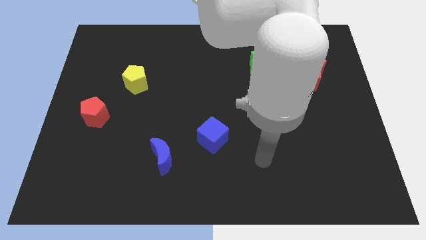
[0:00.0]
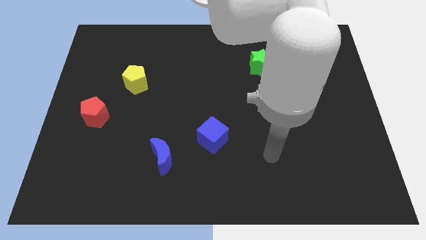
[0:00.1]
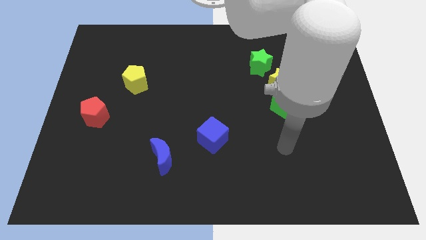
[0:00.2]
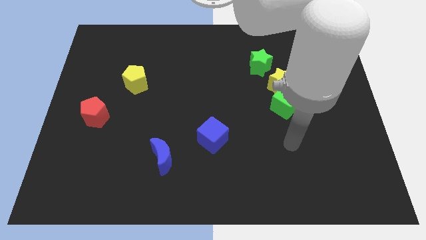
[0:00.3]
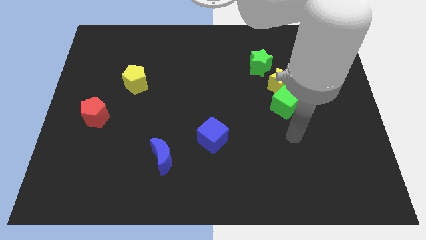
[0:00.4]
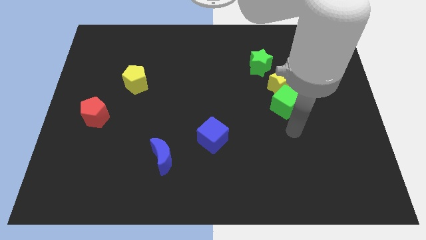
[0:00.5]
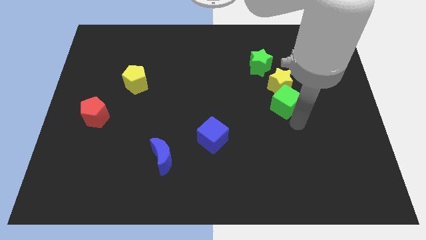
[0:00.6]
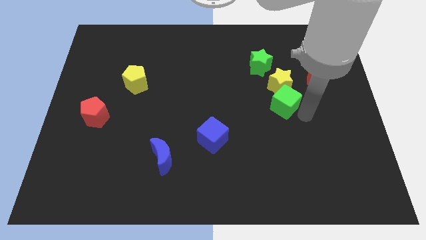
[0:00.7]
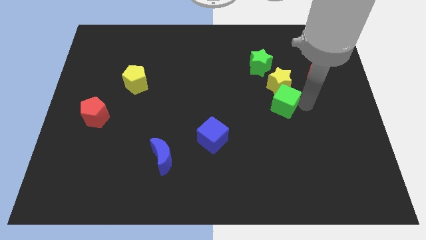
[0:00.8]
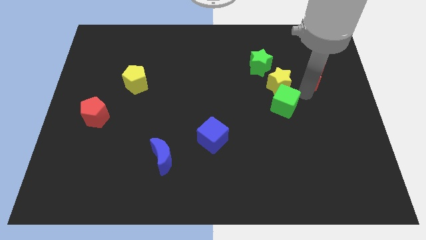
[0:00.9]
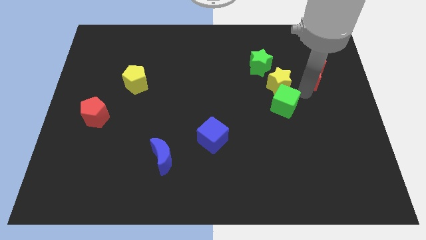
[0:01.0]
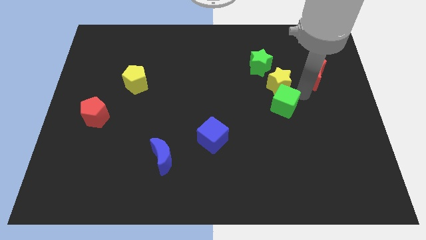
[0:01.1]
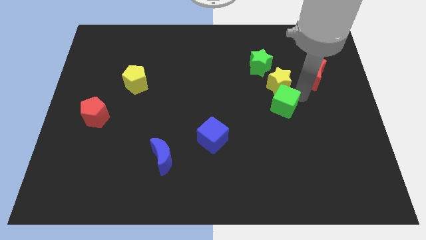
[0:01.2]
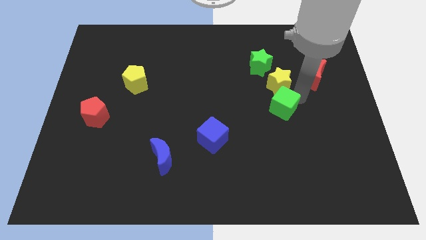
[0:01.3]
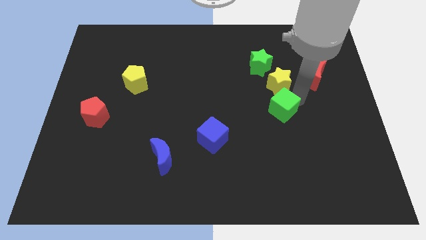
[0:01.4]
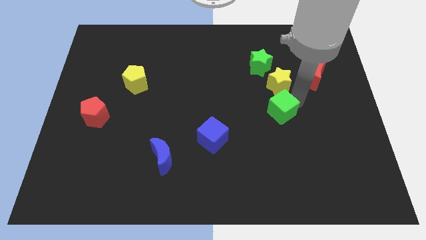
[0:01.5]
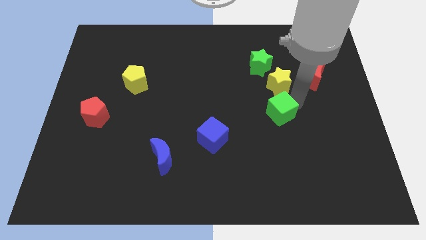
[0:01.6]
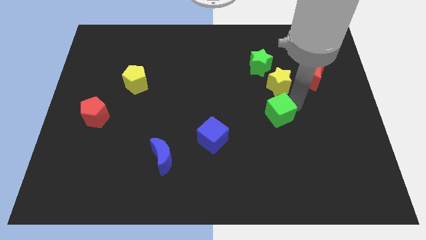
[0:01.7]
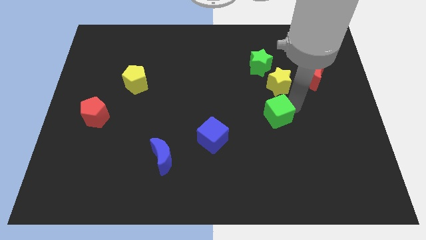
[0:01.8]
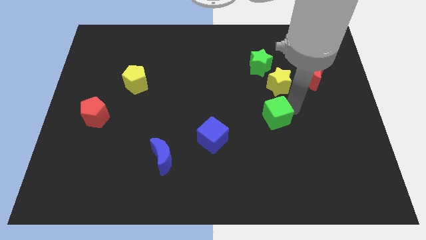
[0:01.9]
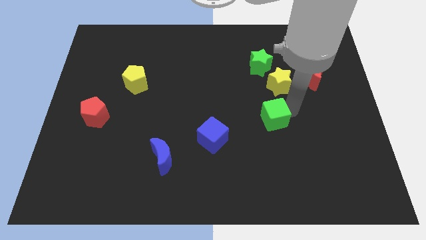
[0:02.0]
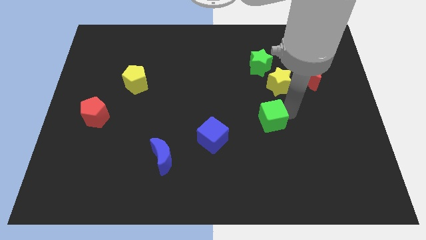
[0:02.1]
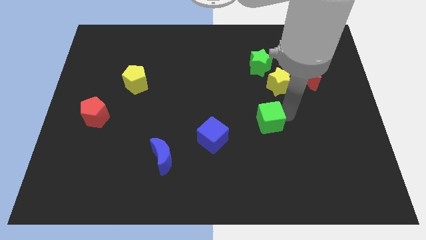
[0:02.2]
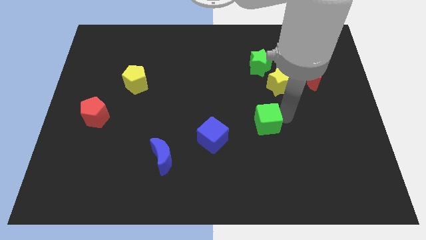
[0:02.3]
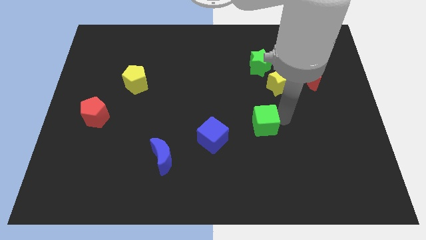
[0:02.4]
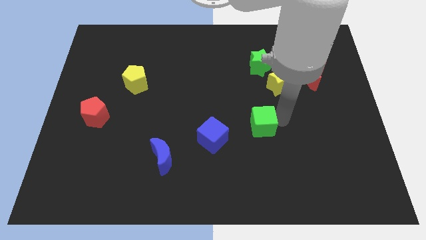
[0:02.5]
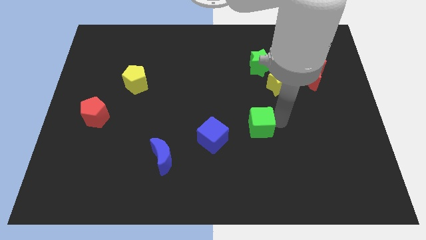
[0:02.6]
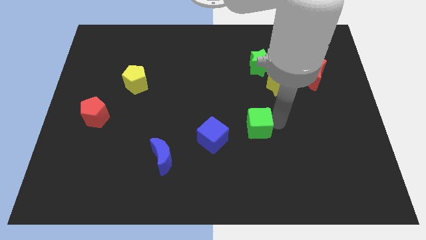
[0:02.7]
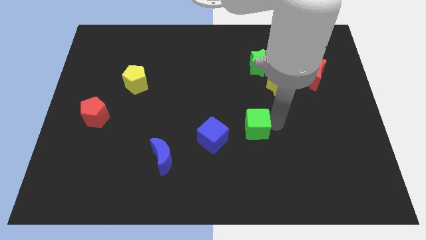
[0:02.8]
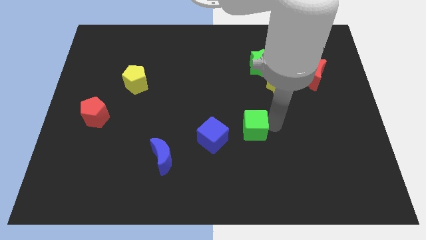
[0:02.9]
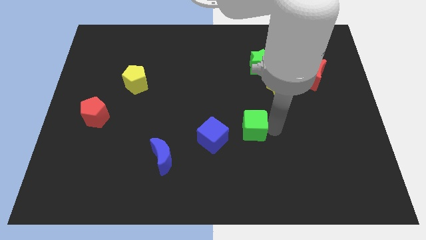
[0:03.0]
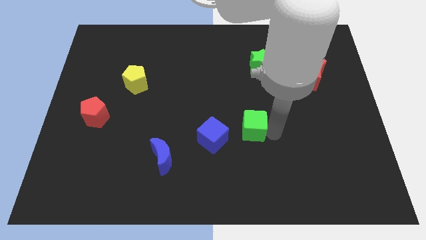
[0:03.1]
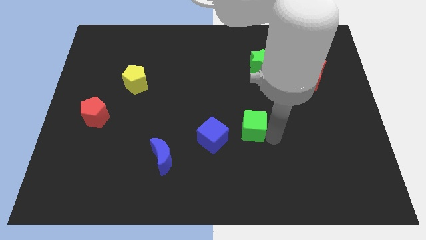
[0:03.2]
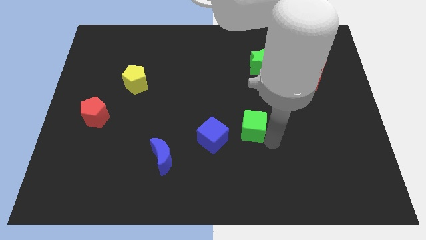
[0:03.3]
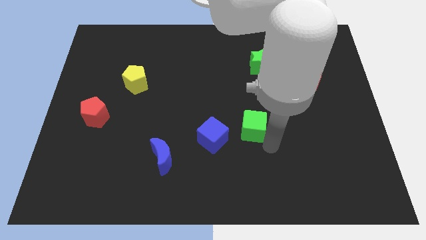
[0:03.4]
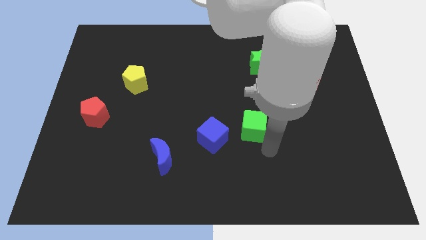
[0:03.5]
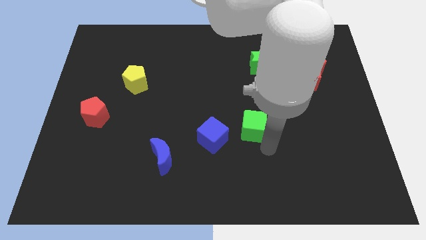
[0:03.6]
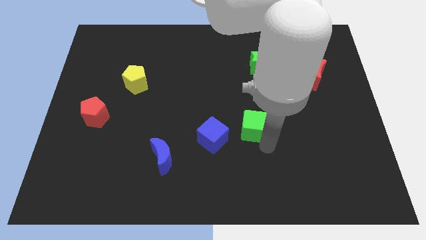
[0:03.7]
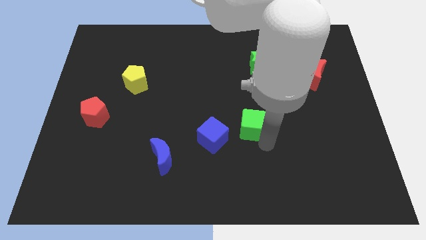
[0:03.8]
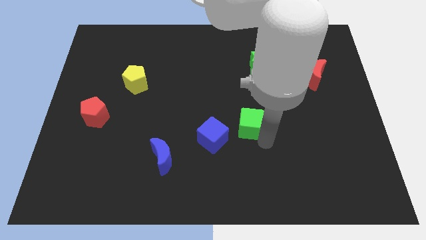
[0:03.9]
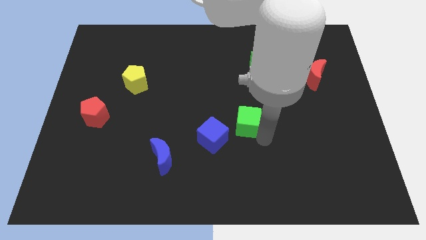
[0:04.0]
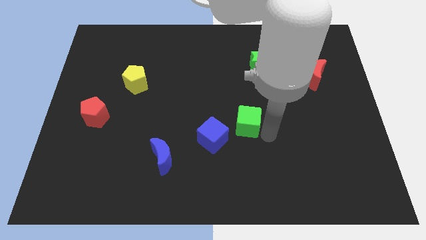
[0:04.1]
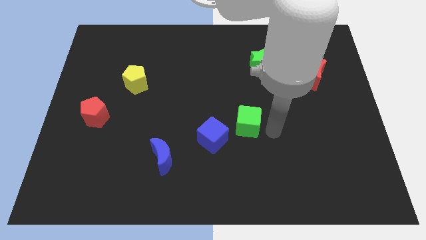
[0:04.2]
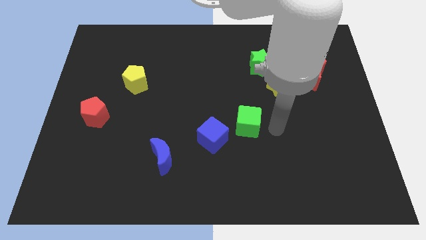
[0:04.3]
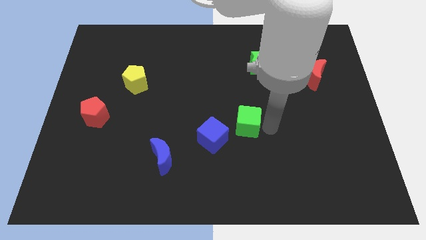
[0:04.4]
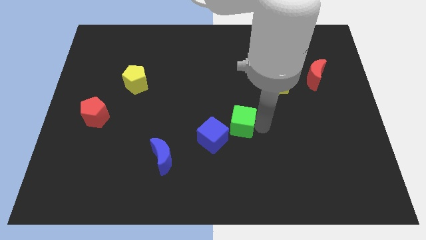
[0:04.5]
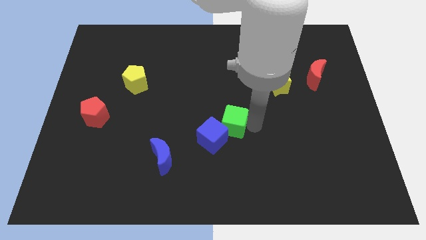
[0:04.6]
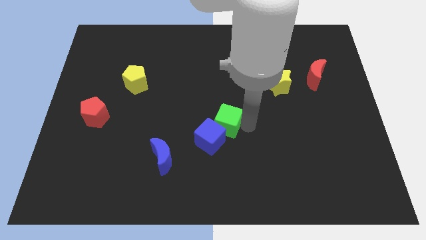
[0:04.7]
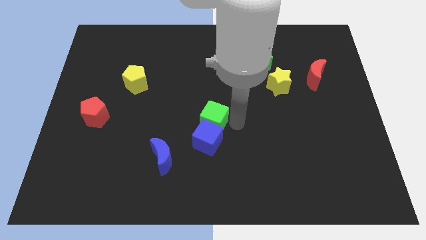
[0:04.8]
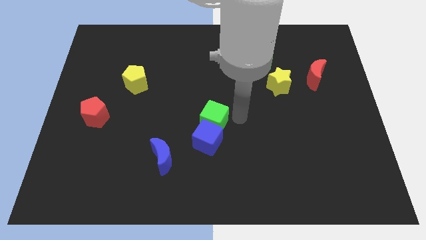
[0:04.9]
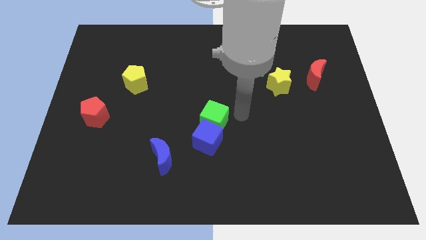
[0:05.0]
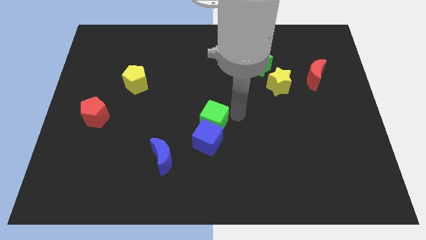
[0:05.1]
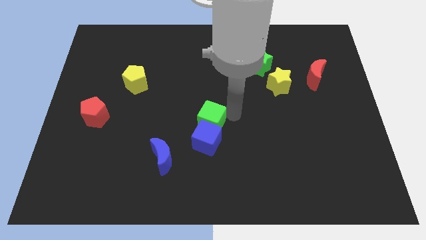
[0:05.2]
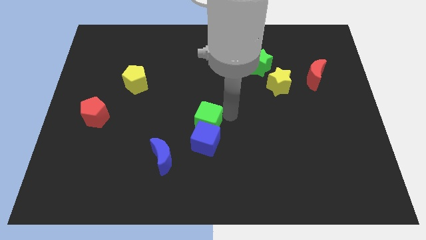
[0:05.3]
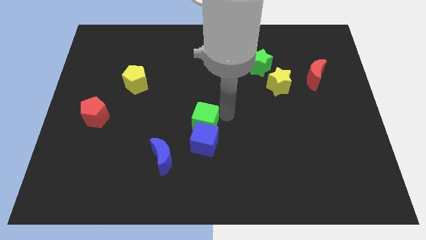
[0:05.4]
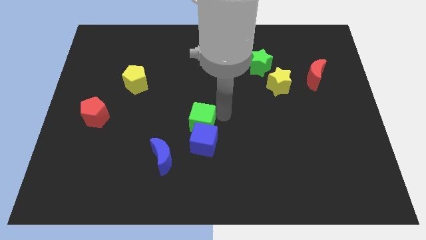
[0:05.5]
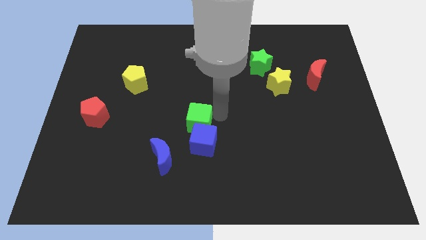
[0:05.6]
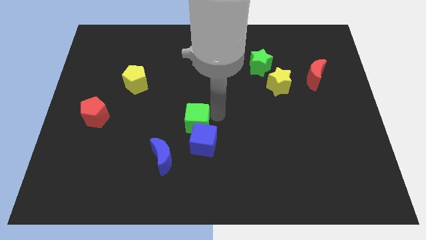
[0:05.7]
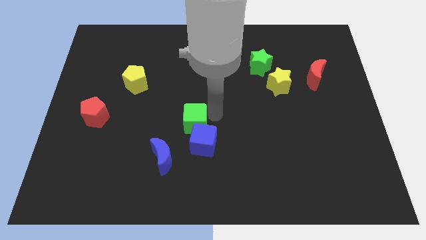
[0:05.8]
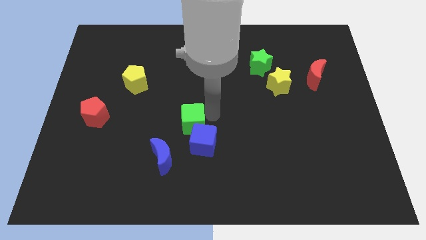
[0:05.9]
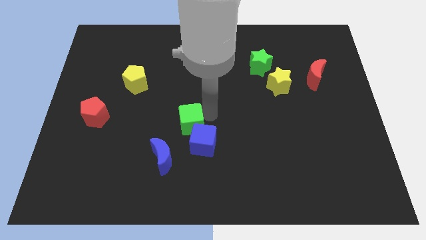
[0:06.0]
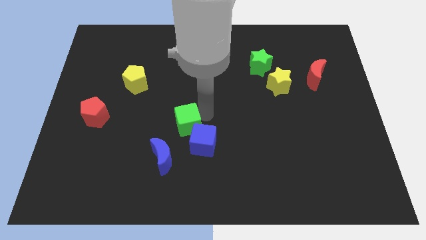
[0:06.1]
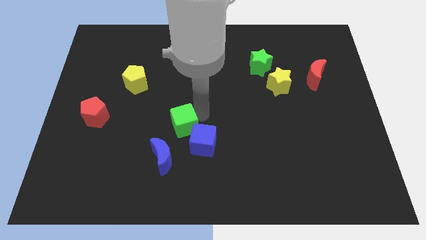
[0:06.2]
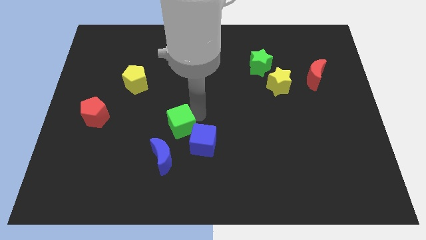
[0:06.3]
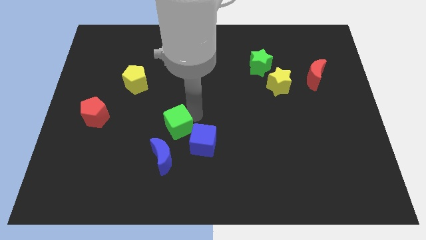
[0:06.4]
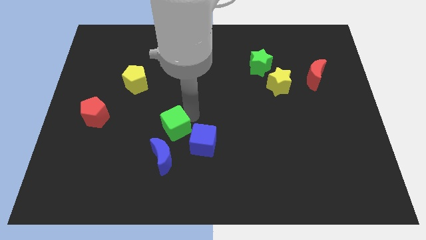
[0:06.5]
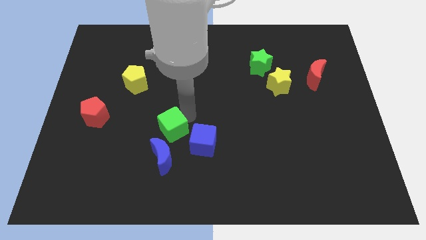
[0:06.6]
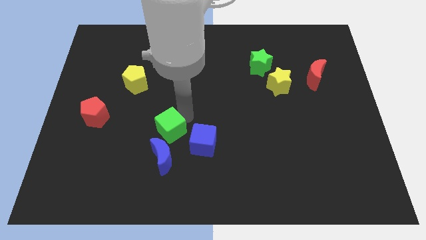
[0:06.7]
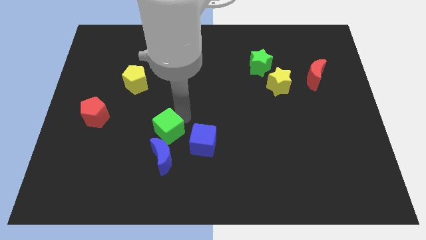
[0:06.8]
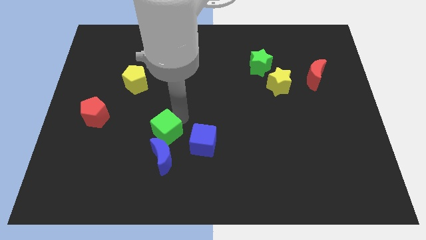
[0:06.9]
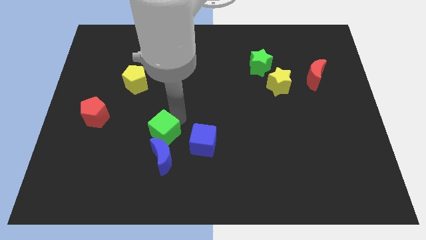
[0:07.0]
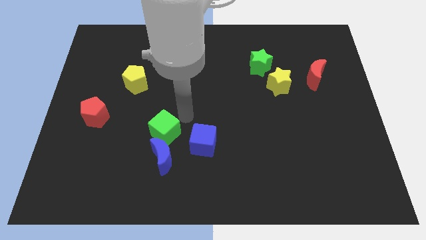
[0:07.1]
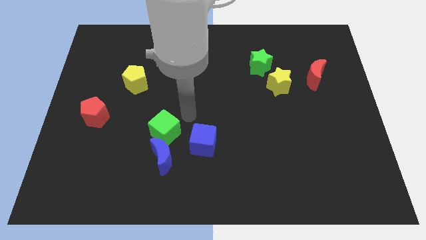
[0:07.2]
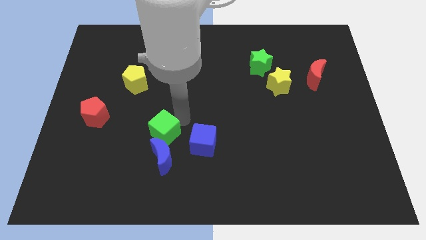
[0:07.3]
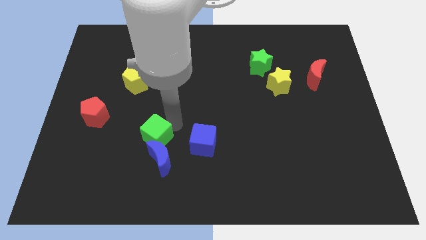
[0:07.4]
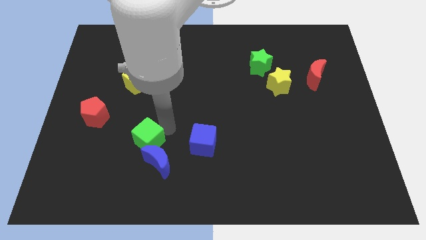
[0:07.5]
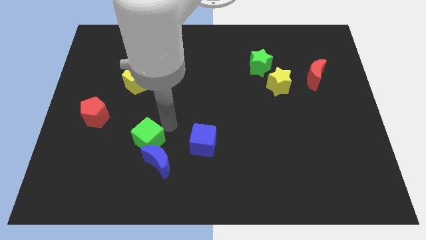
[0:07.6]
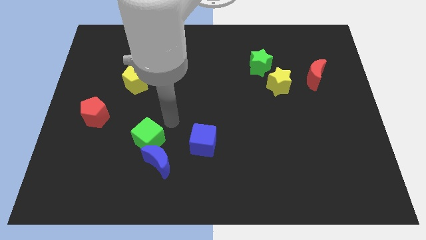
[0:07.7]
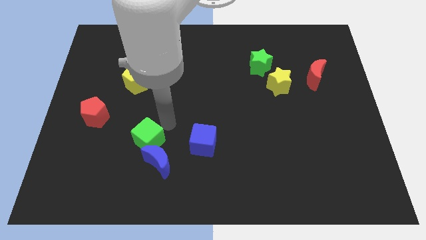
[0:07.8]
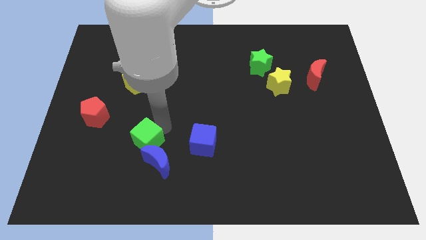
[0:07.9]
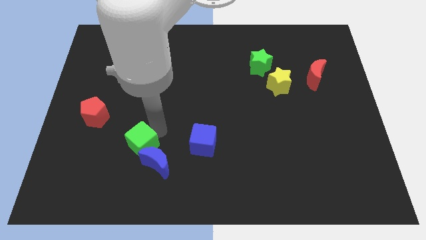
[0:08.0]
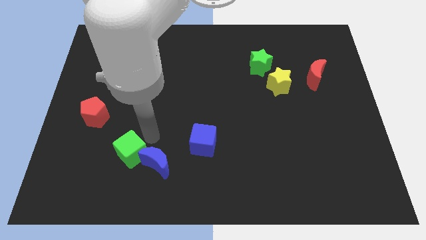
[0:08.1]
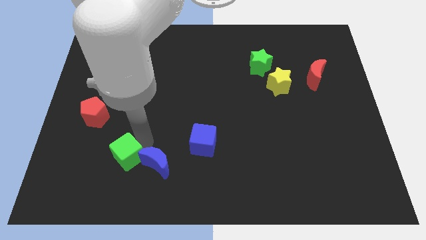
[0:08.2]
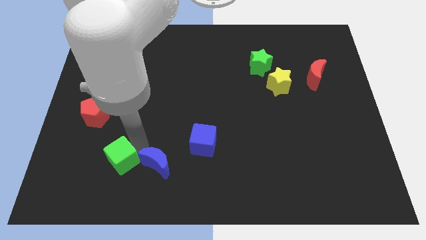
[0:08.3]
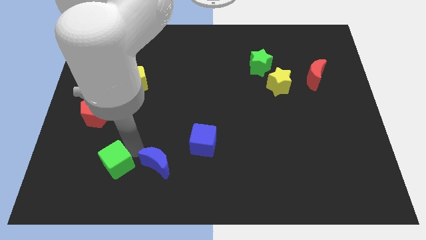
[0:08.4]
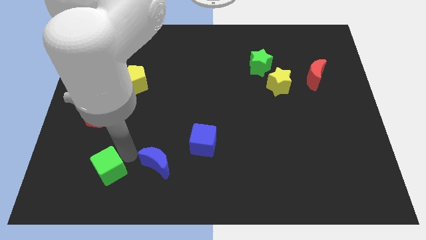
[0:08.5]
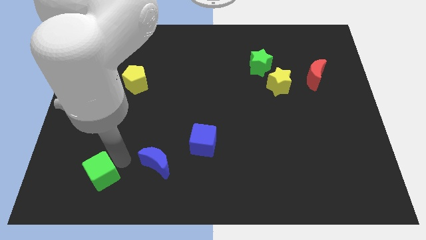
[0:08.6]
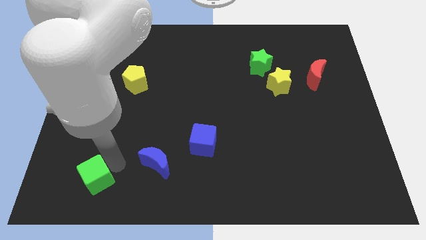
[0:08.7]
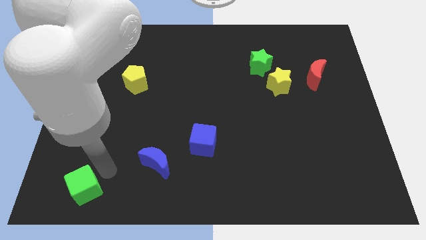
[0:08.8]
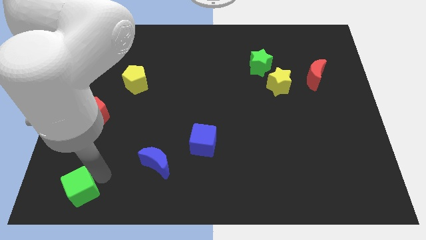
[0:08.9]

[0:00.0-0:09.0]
push the green cube to the bottom left
